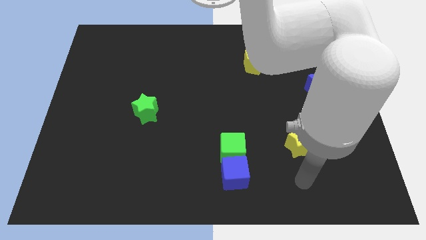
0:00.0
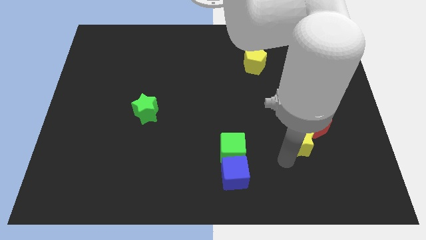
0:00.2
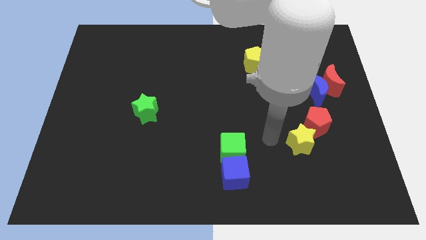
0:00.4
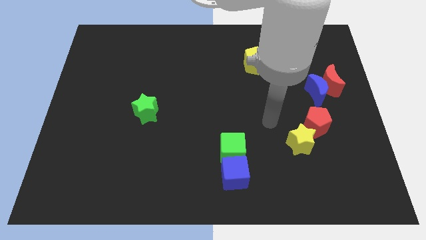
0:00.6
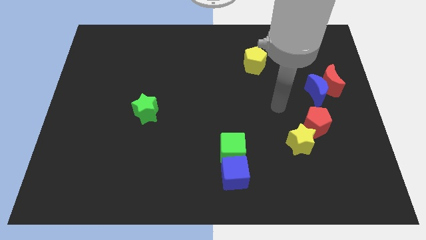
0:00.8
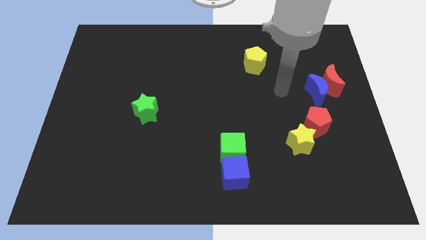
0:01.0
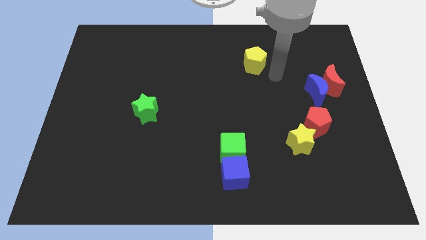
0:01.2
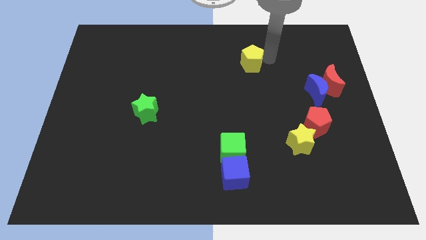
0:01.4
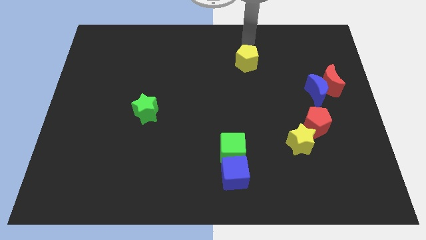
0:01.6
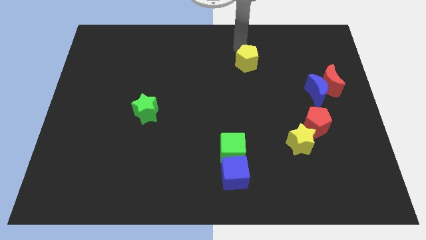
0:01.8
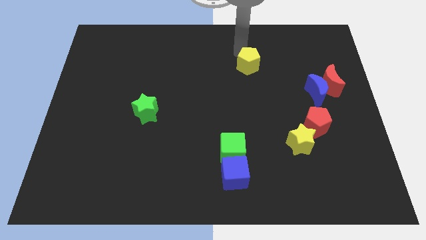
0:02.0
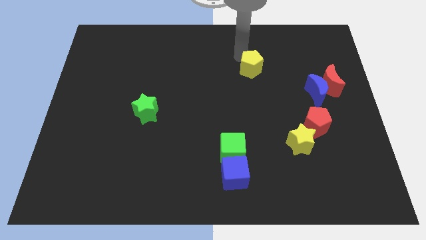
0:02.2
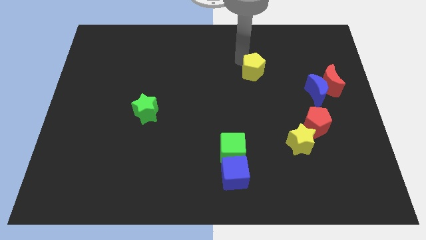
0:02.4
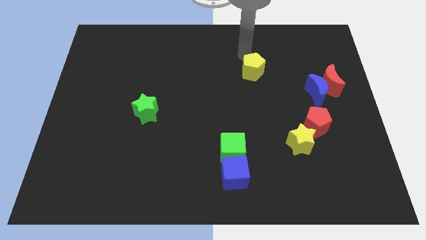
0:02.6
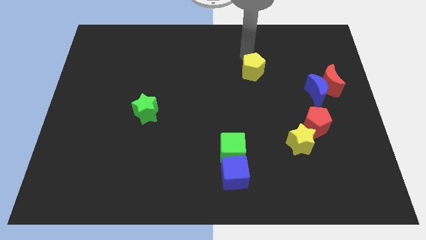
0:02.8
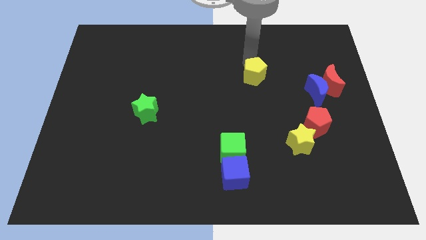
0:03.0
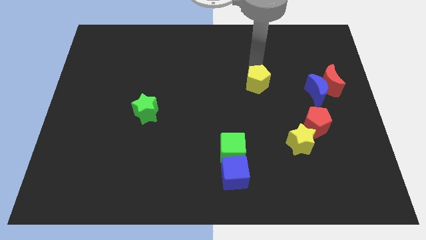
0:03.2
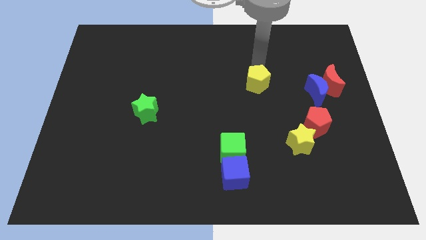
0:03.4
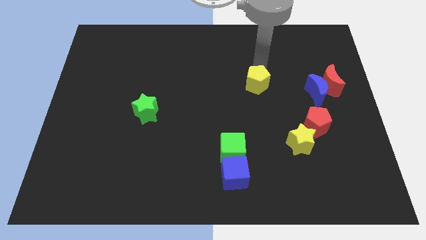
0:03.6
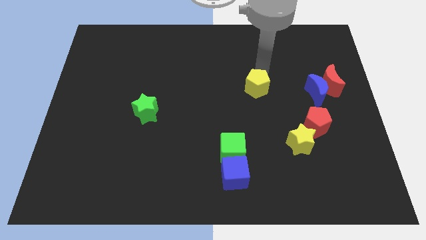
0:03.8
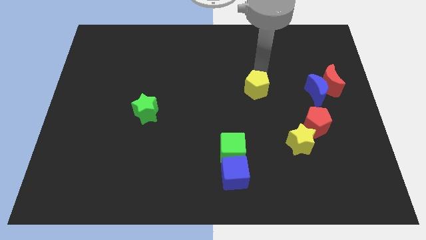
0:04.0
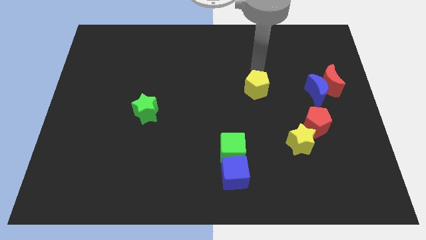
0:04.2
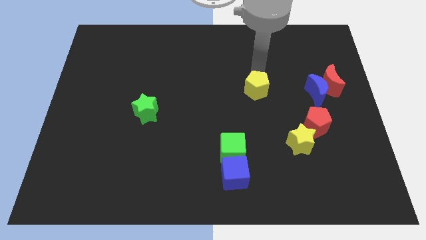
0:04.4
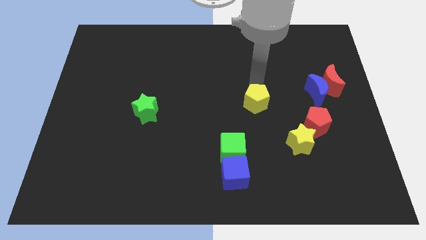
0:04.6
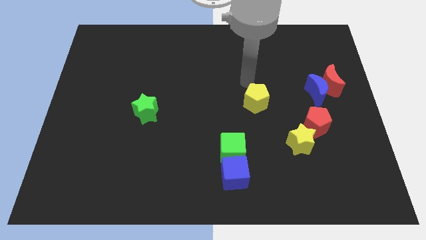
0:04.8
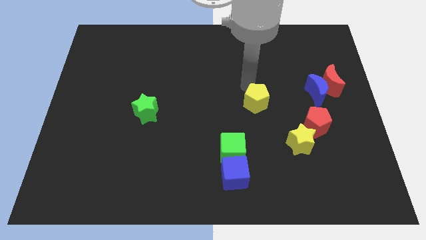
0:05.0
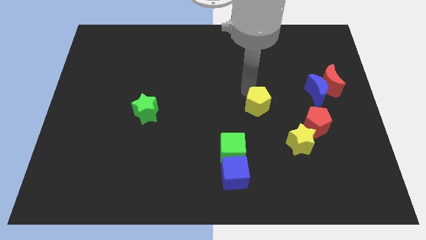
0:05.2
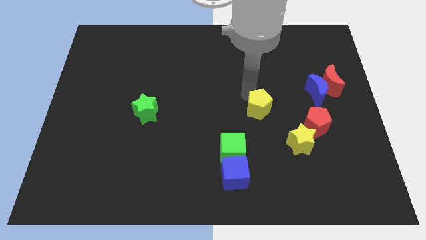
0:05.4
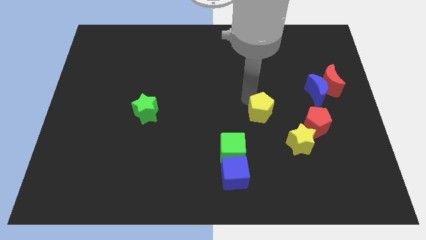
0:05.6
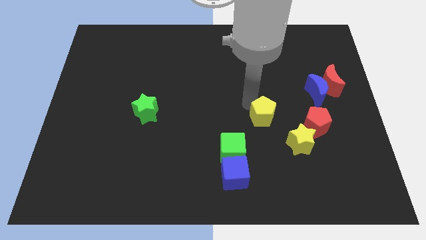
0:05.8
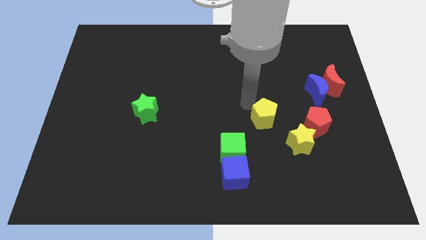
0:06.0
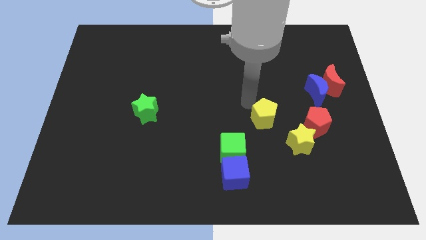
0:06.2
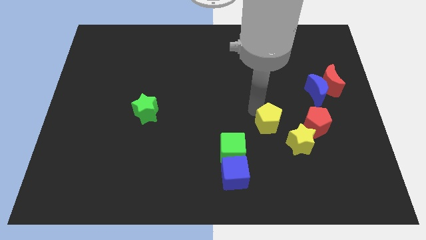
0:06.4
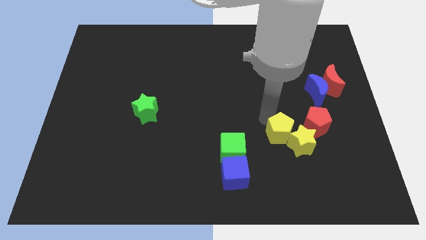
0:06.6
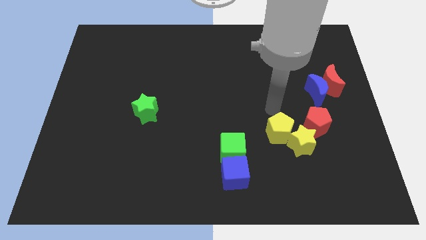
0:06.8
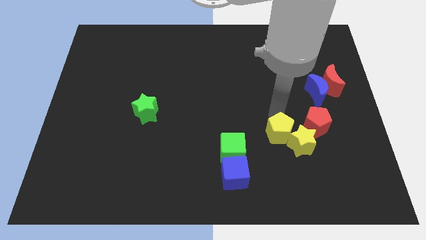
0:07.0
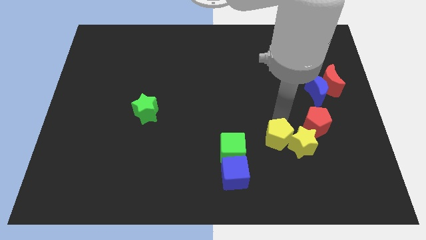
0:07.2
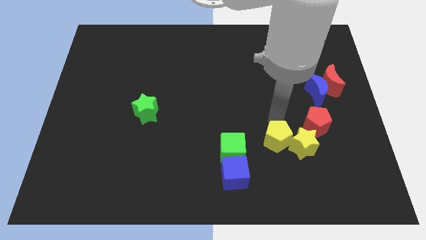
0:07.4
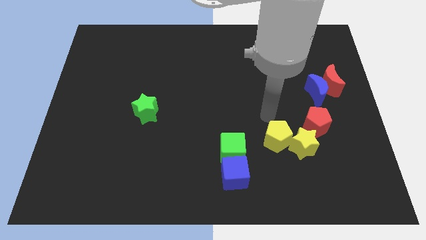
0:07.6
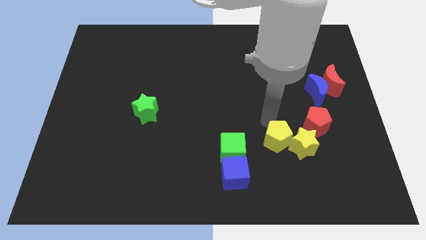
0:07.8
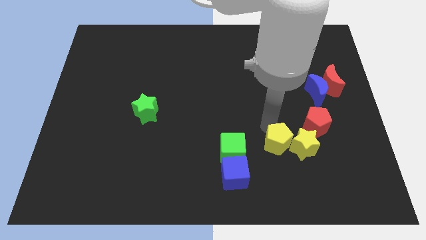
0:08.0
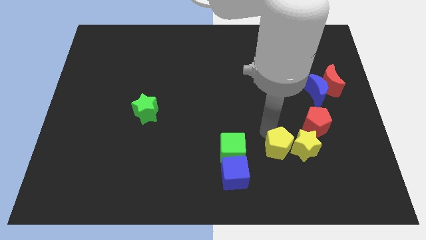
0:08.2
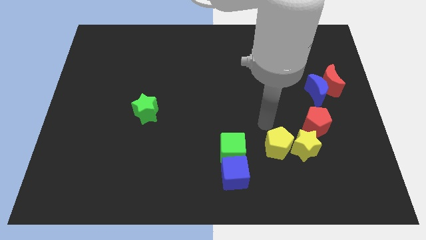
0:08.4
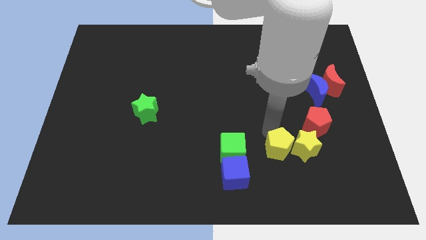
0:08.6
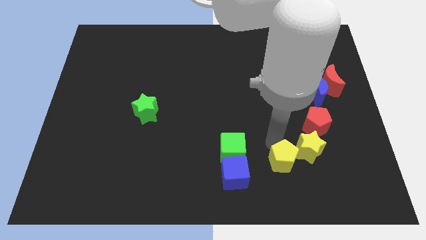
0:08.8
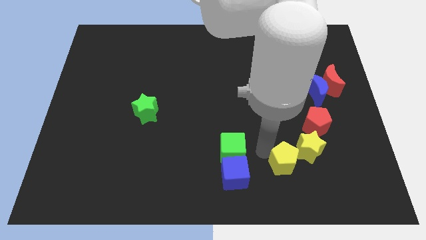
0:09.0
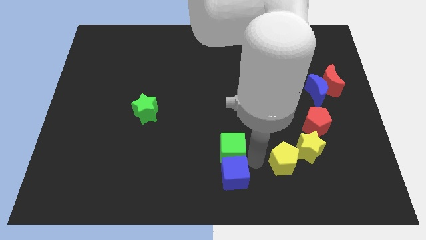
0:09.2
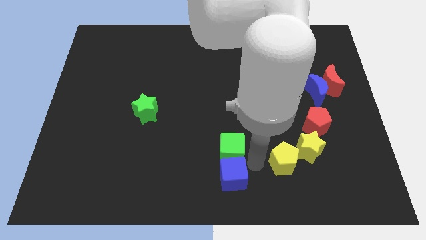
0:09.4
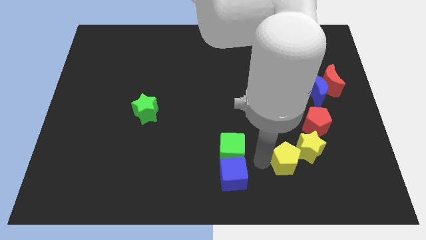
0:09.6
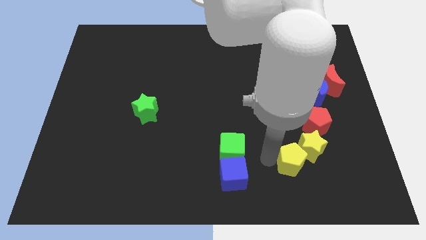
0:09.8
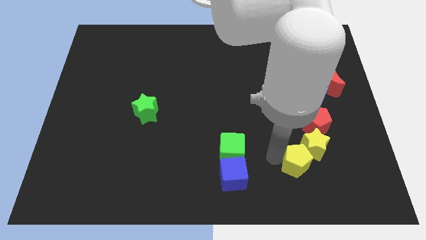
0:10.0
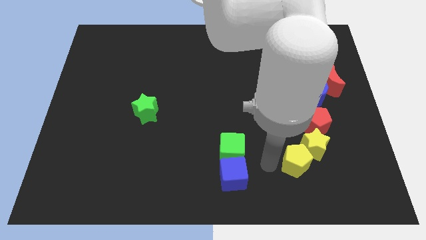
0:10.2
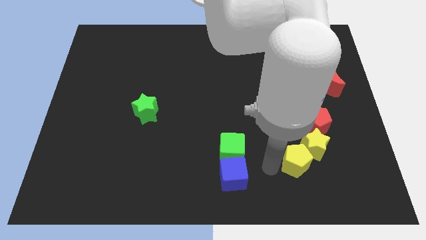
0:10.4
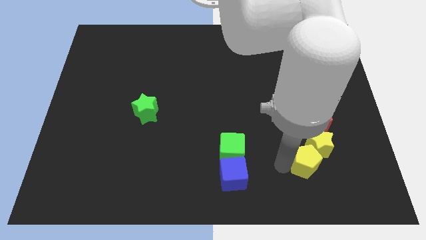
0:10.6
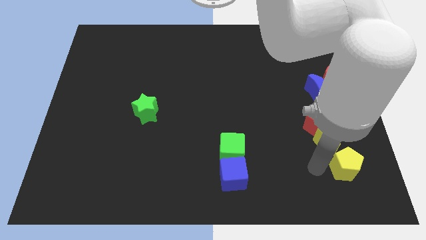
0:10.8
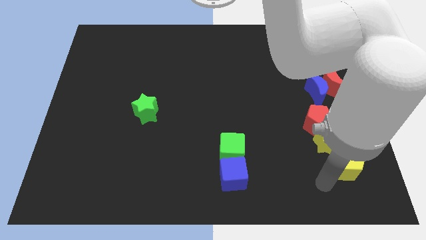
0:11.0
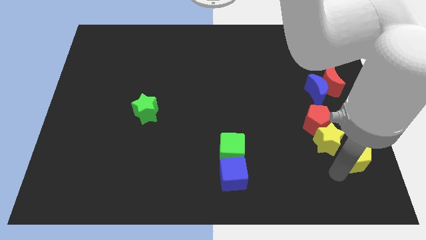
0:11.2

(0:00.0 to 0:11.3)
put the yellow pentagon to the right of the yellow star

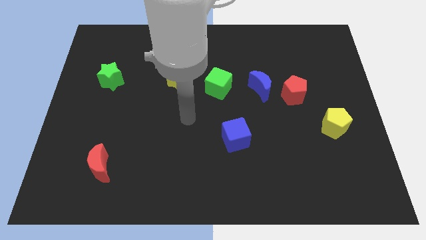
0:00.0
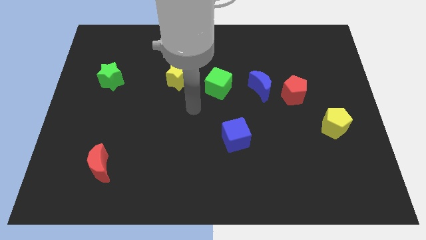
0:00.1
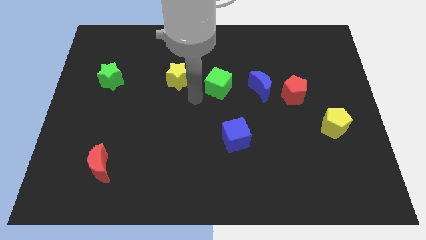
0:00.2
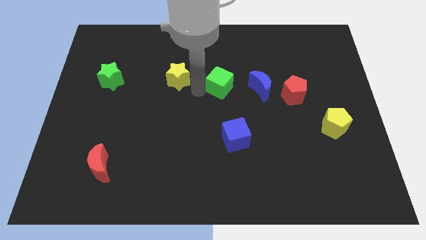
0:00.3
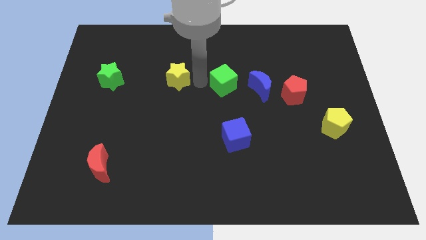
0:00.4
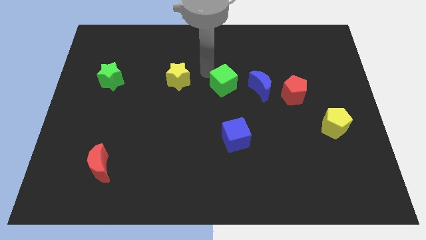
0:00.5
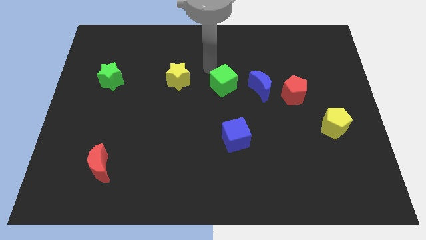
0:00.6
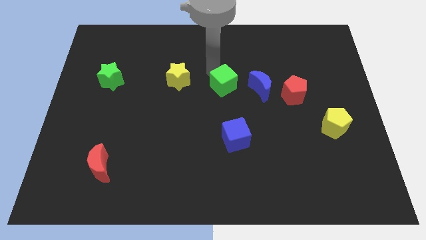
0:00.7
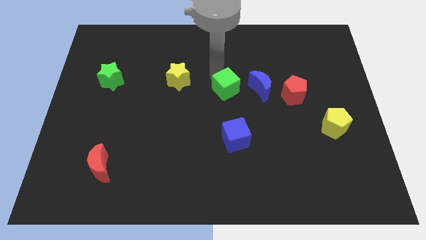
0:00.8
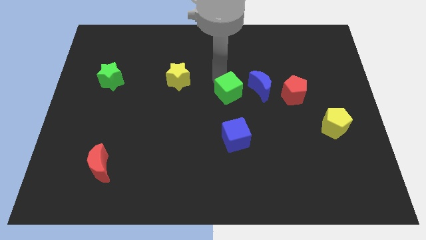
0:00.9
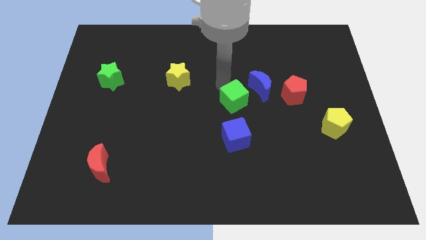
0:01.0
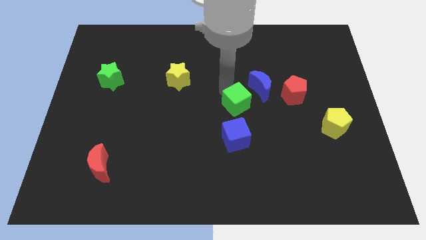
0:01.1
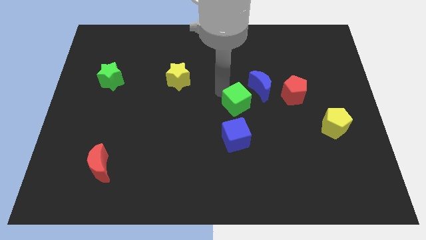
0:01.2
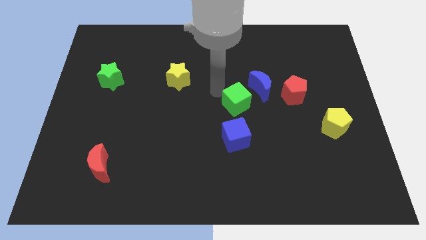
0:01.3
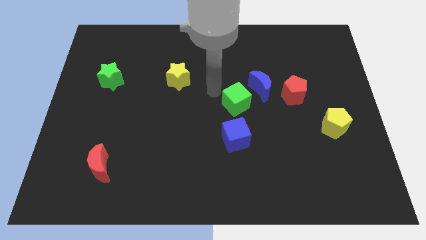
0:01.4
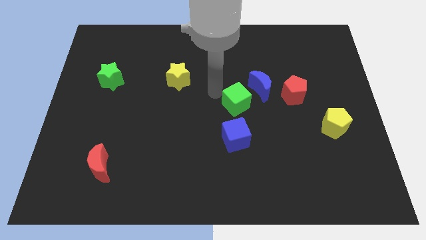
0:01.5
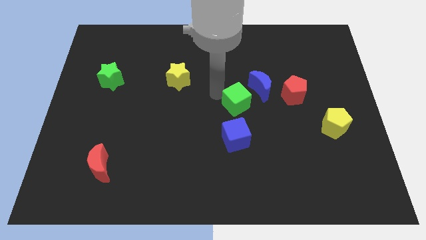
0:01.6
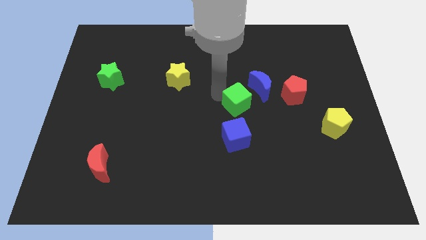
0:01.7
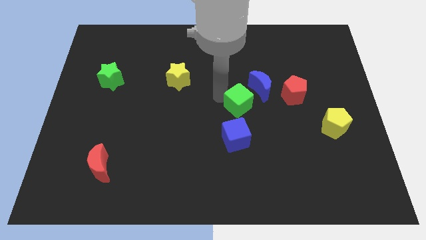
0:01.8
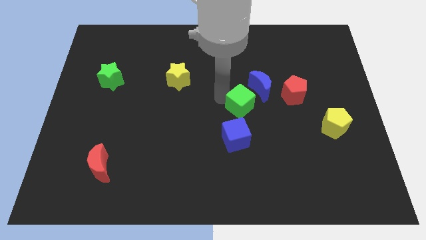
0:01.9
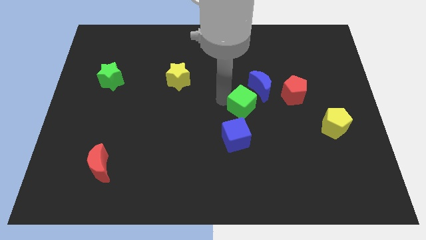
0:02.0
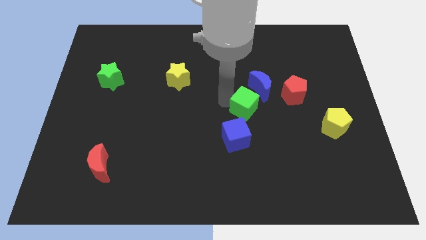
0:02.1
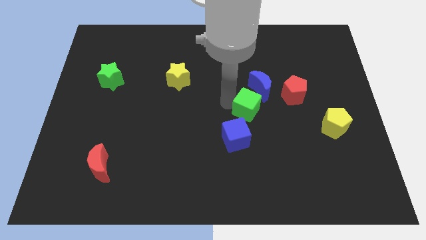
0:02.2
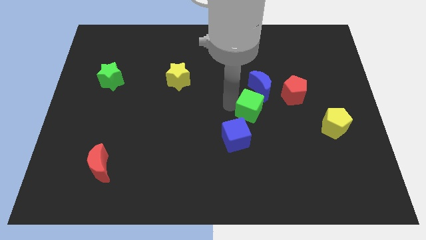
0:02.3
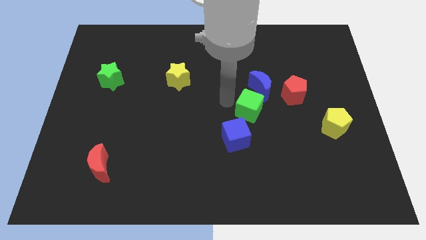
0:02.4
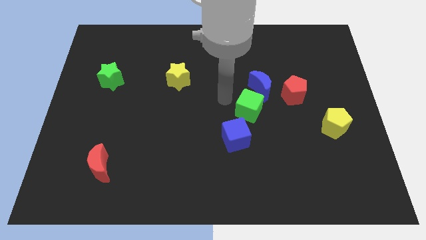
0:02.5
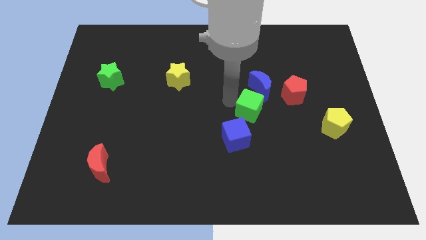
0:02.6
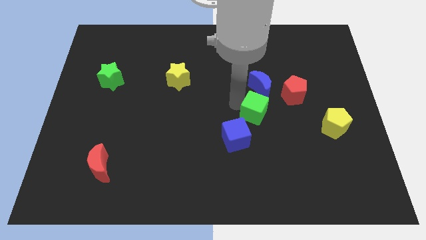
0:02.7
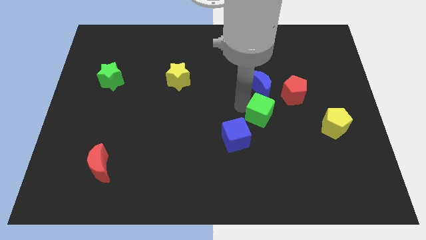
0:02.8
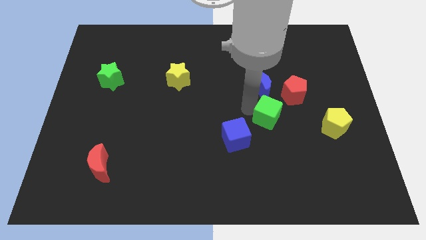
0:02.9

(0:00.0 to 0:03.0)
push the green cube to the left side of the yellow pentagon
